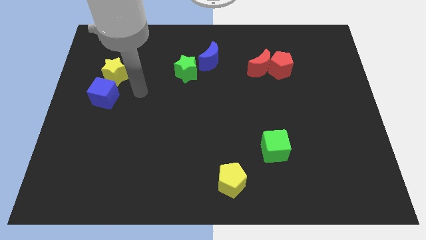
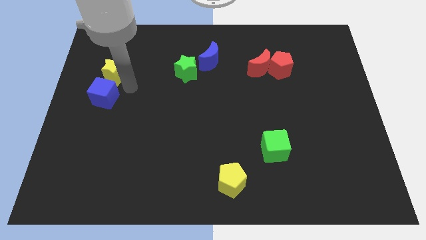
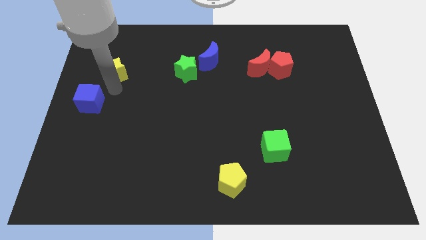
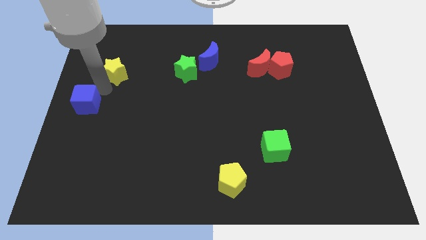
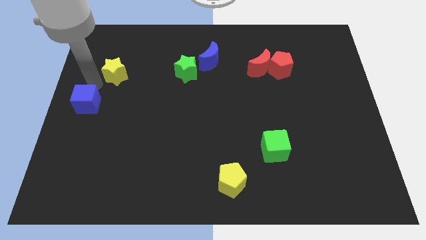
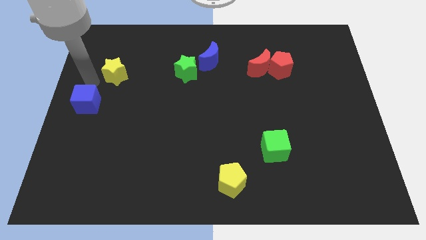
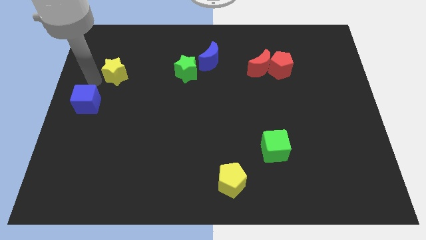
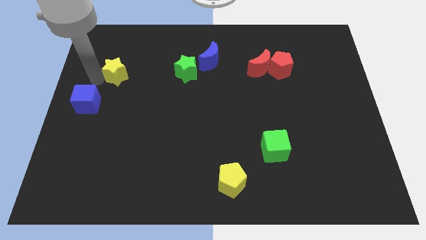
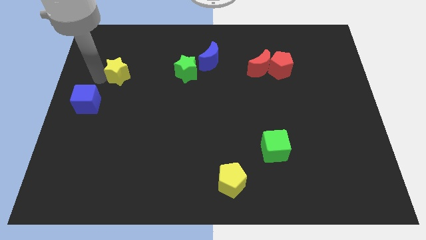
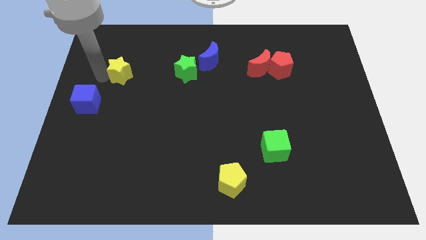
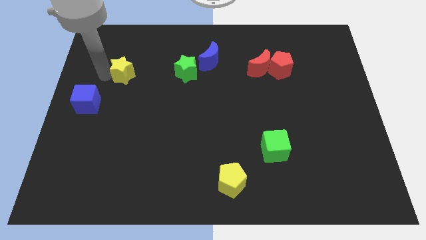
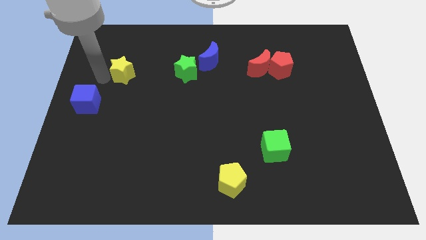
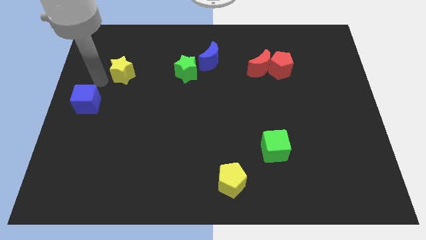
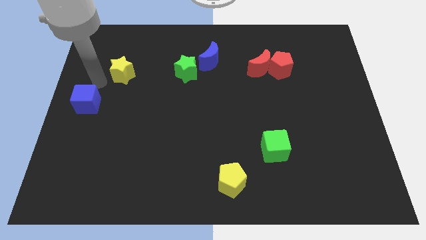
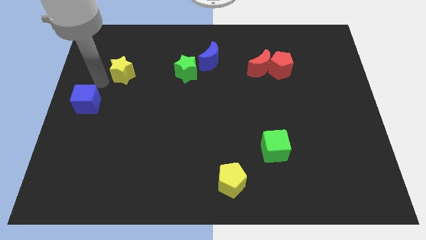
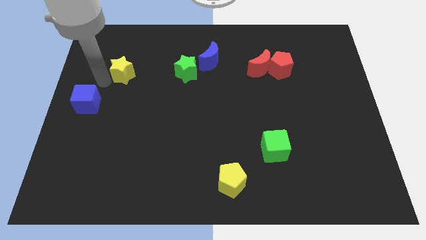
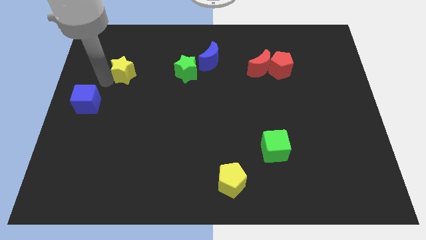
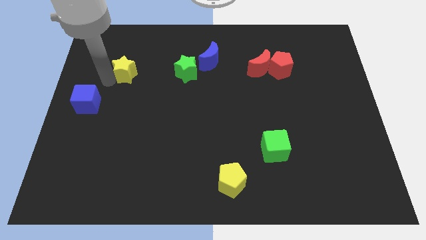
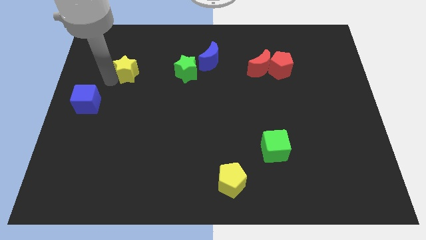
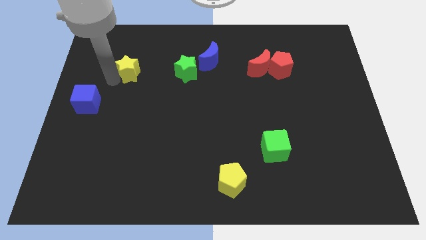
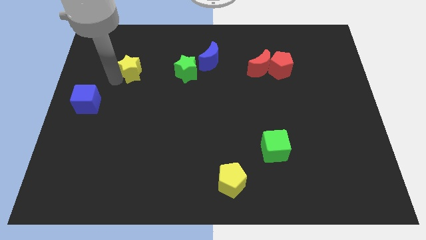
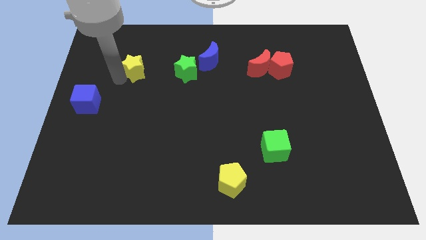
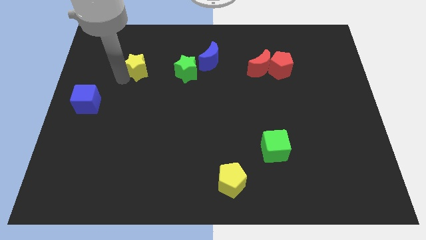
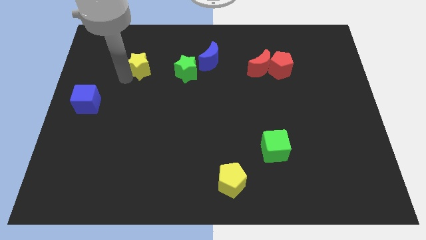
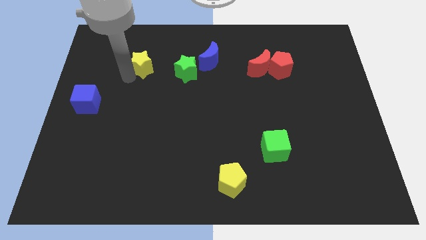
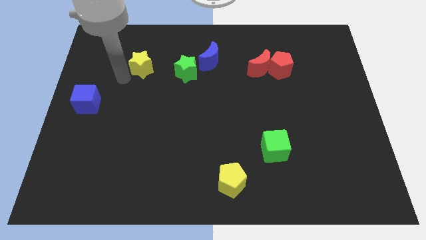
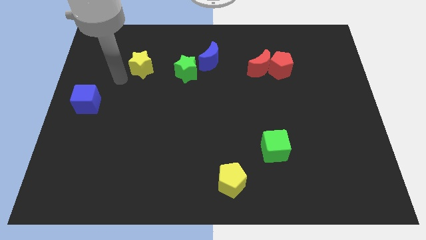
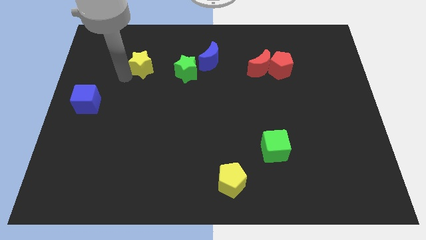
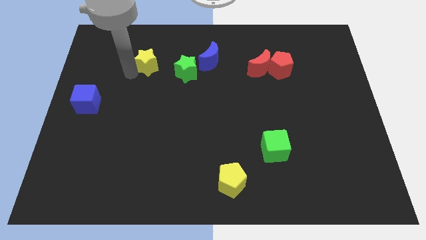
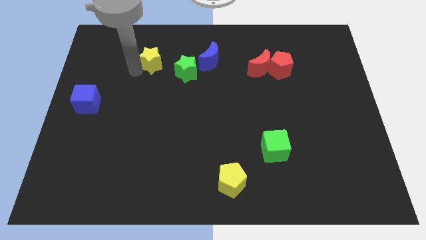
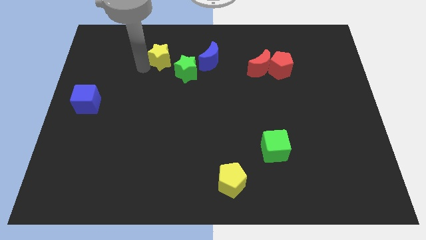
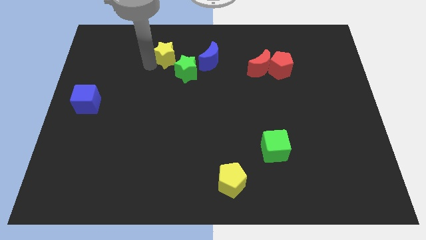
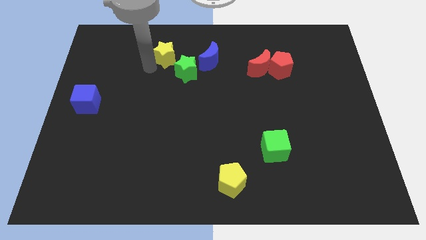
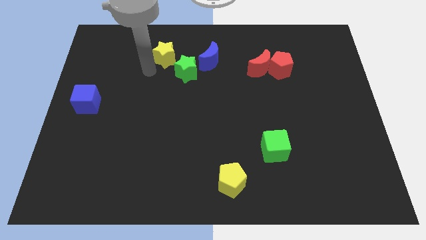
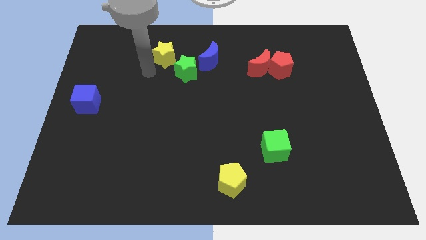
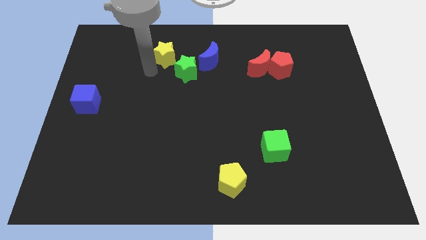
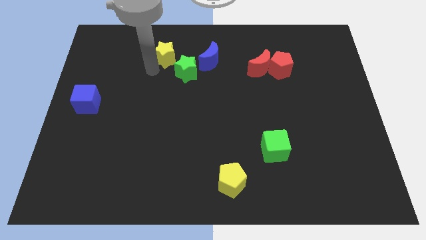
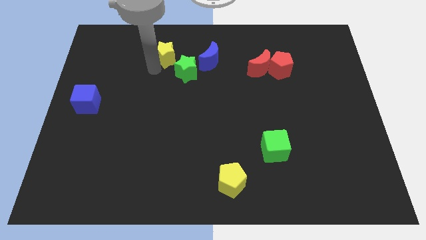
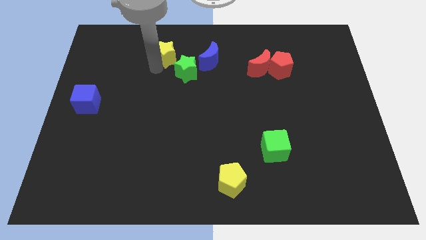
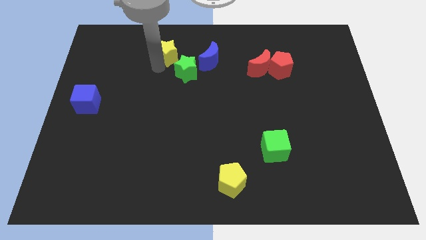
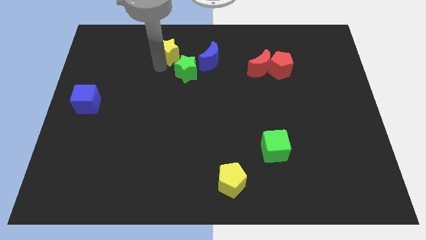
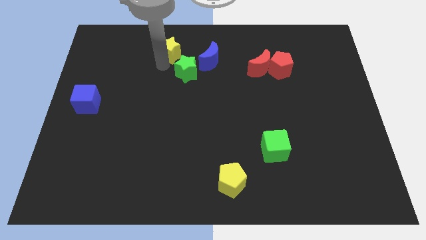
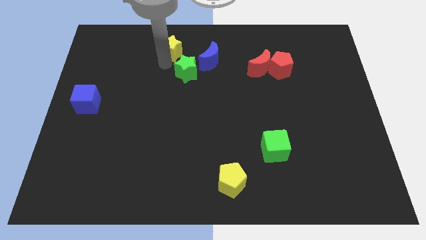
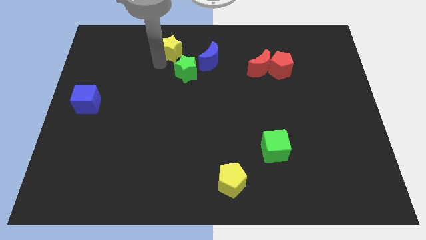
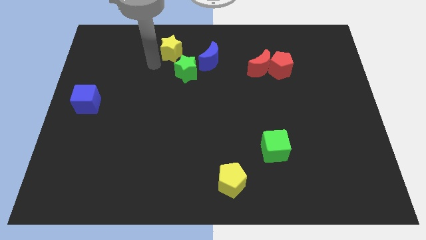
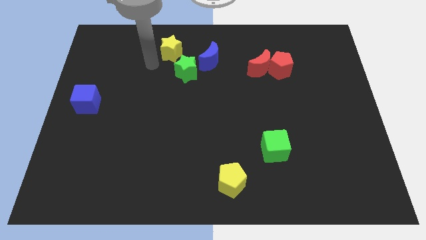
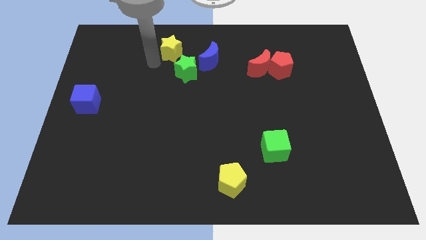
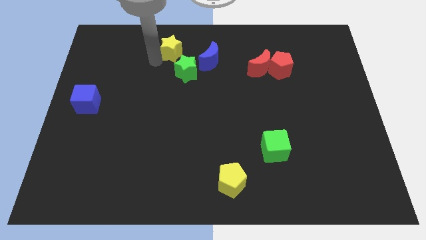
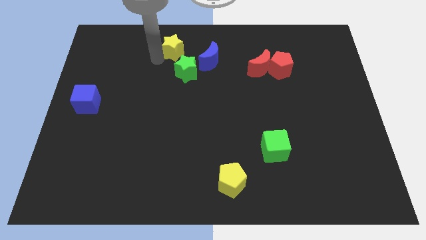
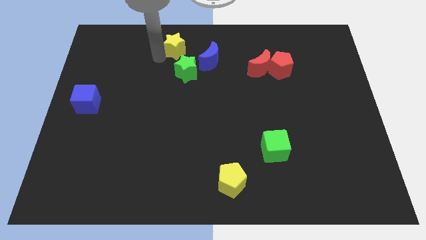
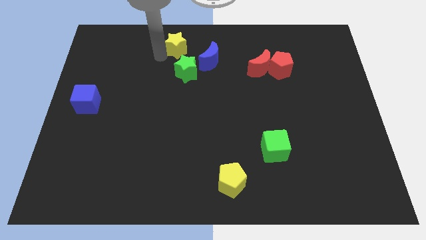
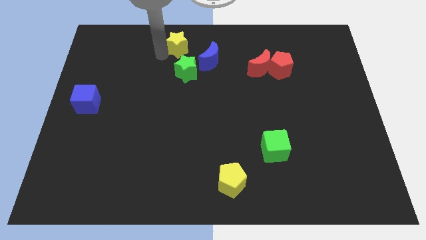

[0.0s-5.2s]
slide the yellow star to the towards your base
